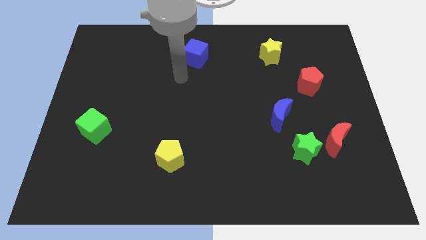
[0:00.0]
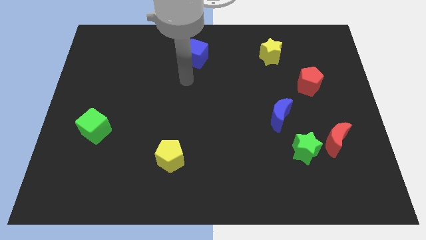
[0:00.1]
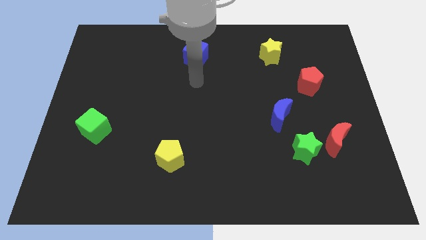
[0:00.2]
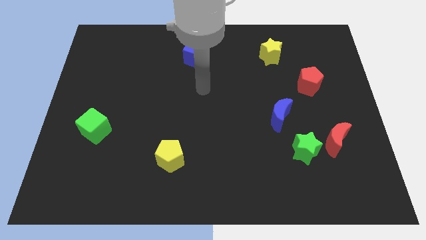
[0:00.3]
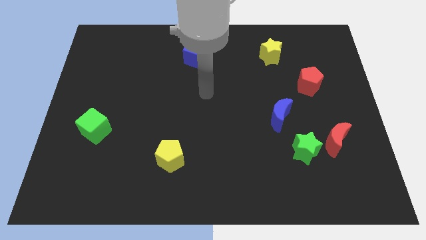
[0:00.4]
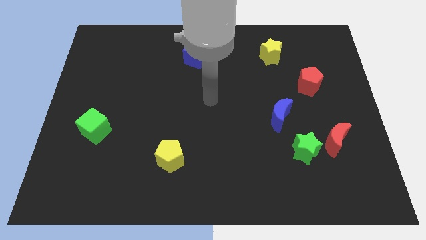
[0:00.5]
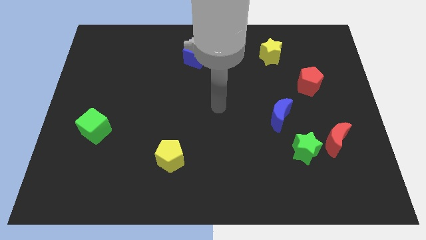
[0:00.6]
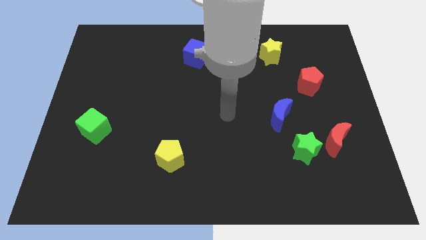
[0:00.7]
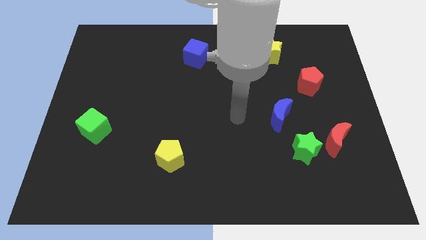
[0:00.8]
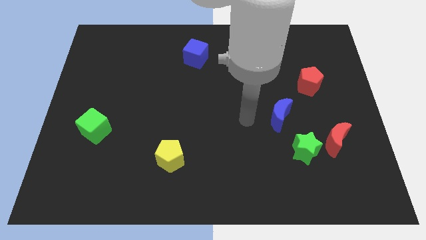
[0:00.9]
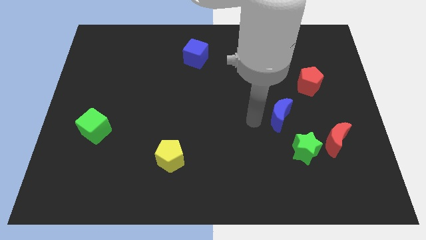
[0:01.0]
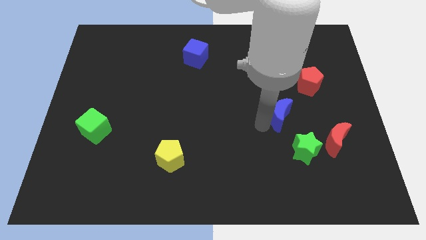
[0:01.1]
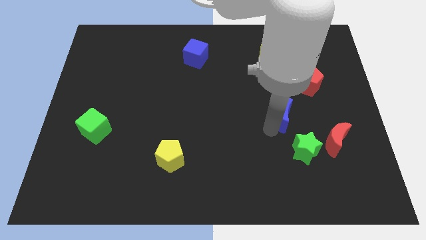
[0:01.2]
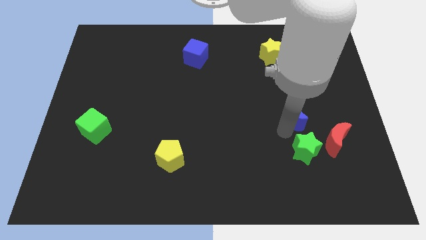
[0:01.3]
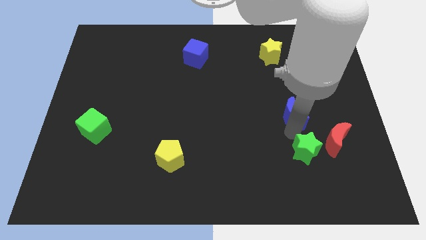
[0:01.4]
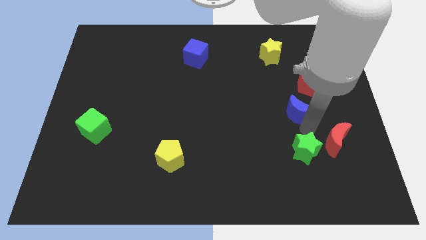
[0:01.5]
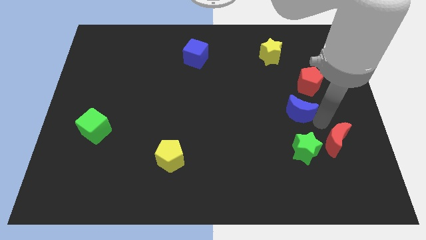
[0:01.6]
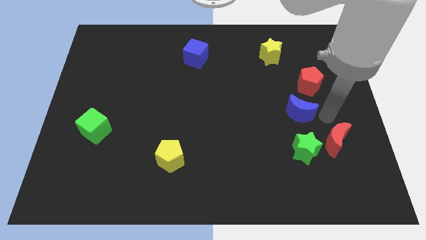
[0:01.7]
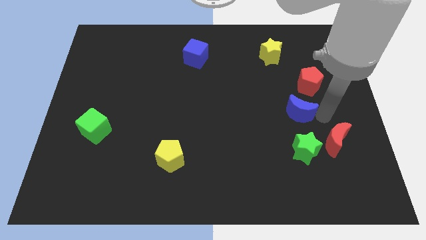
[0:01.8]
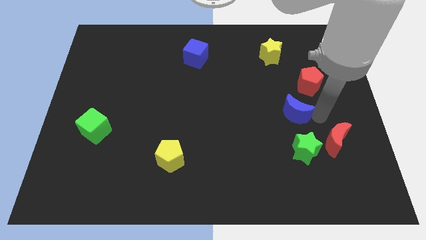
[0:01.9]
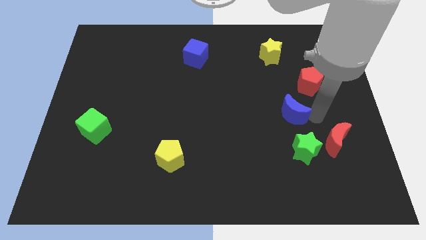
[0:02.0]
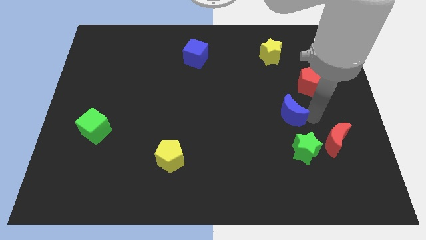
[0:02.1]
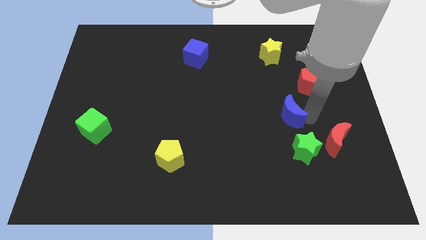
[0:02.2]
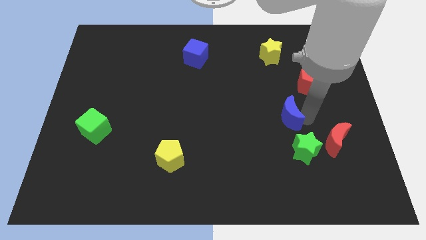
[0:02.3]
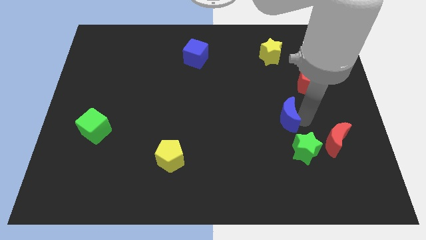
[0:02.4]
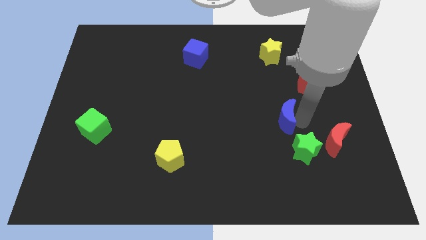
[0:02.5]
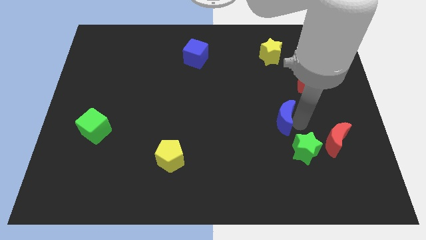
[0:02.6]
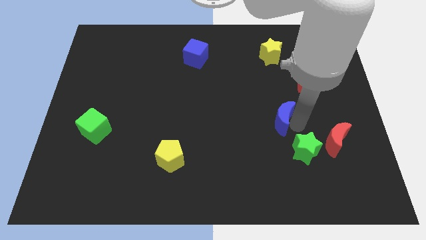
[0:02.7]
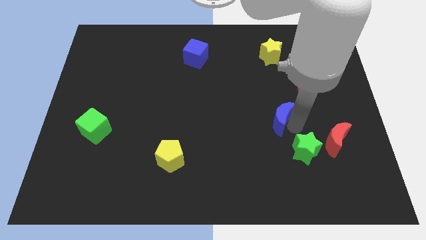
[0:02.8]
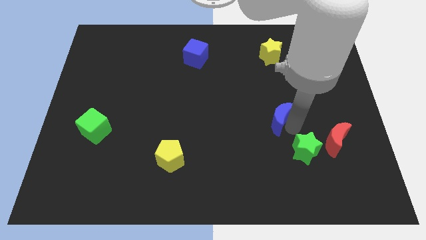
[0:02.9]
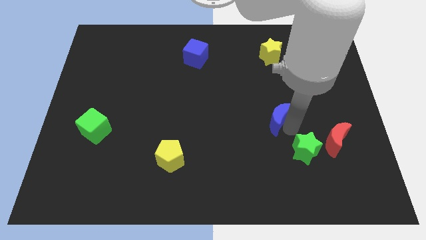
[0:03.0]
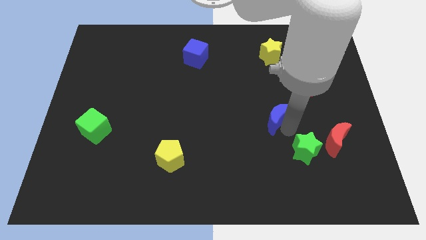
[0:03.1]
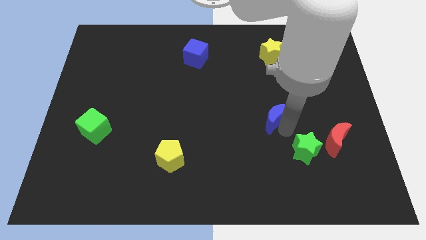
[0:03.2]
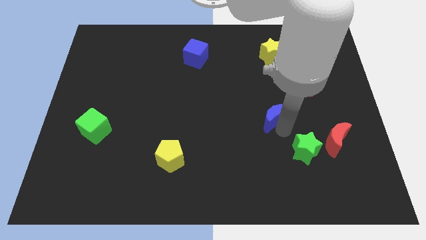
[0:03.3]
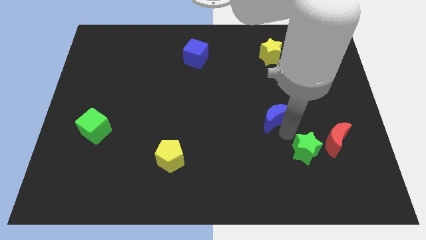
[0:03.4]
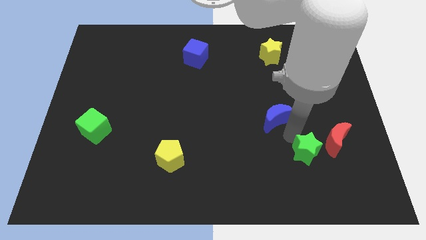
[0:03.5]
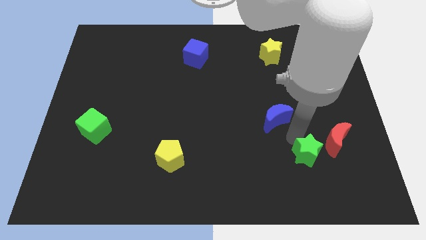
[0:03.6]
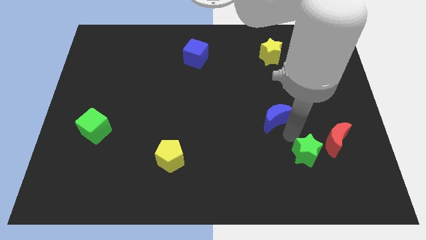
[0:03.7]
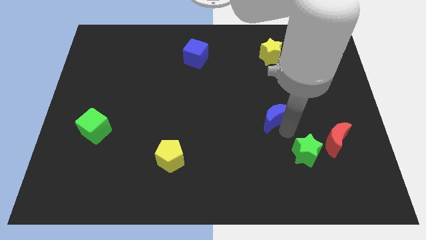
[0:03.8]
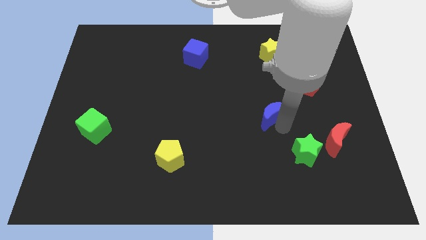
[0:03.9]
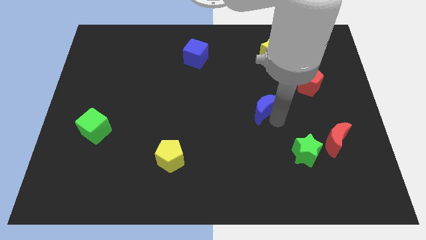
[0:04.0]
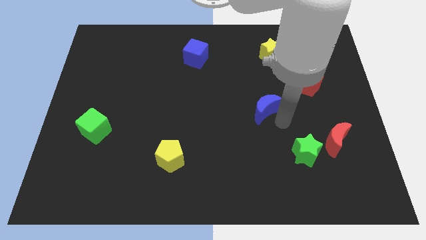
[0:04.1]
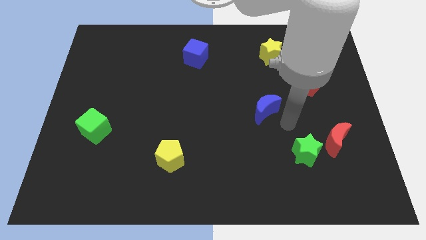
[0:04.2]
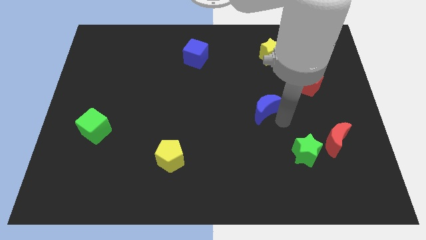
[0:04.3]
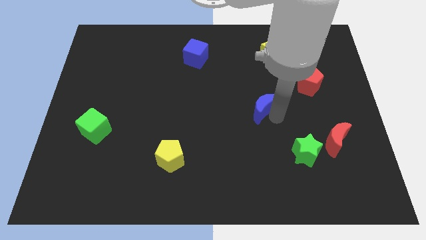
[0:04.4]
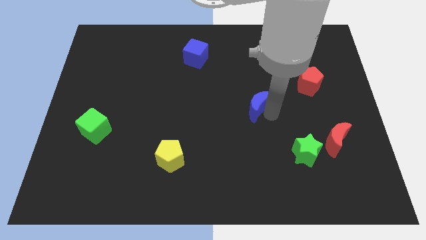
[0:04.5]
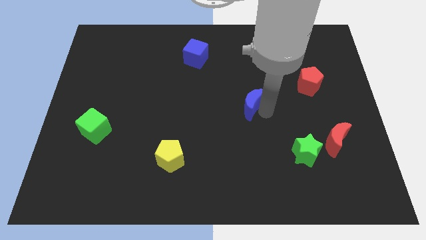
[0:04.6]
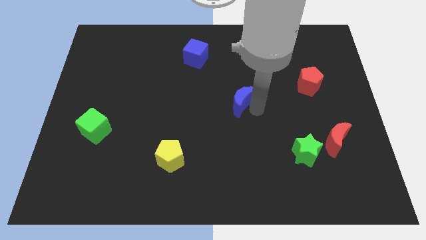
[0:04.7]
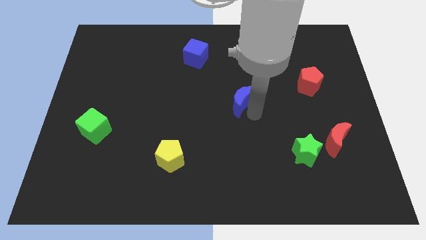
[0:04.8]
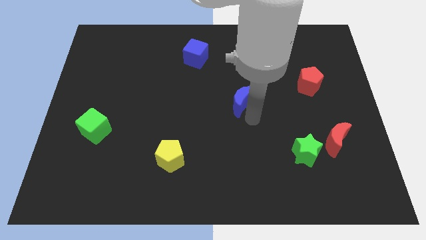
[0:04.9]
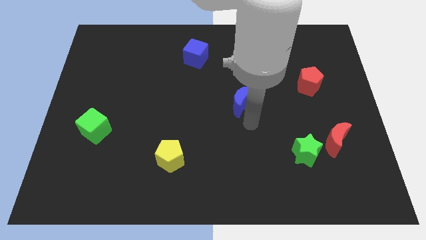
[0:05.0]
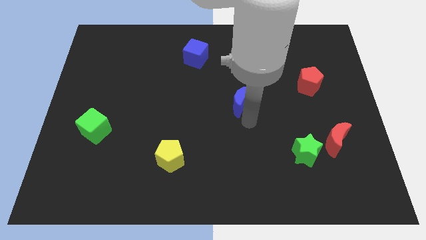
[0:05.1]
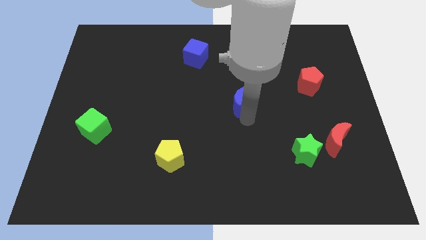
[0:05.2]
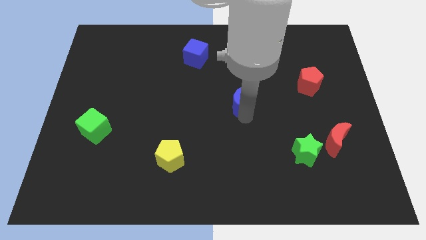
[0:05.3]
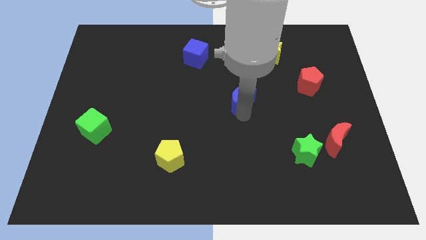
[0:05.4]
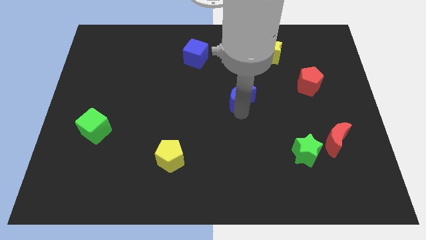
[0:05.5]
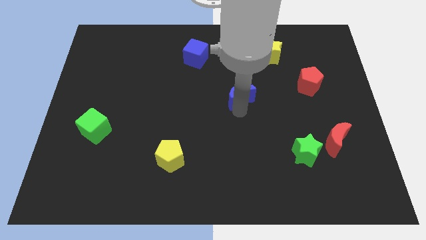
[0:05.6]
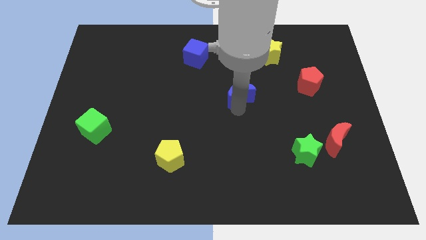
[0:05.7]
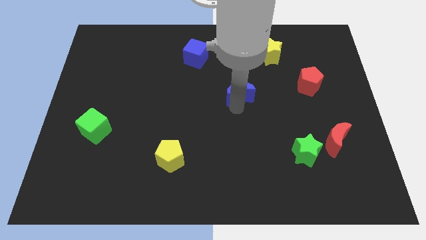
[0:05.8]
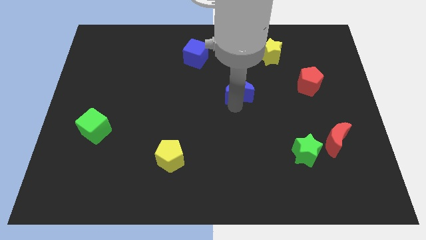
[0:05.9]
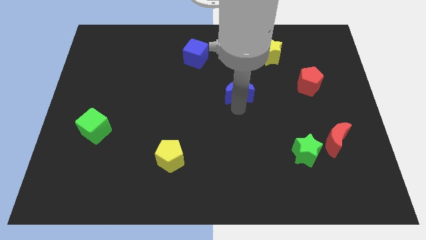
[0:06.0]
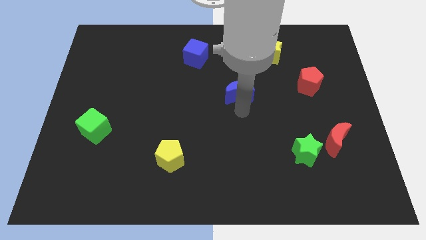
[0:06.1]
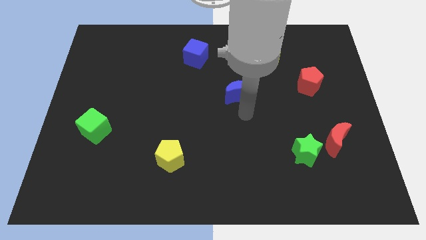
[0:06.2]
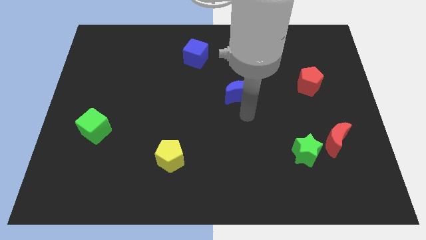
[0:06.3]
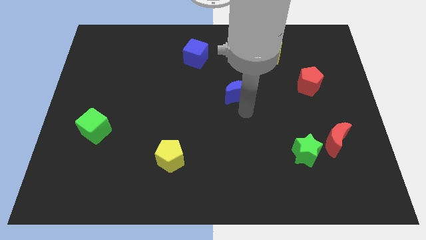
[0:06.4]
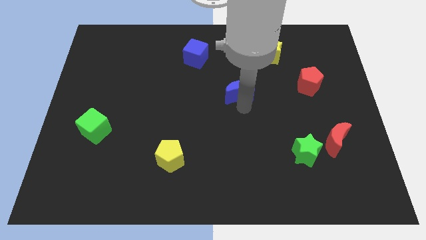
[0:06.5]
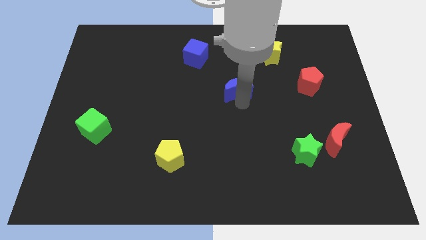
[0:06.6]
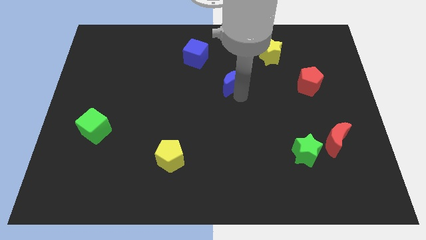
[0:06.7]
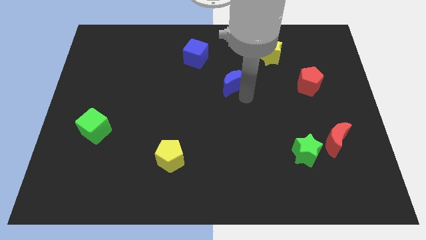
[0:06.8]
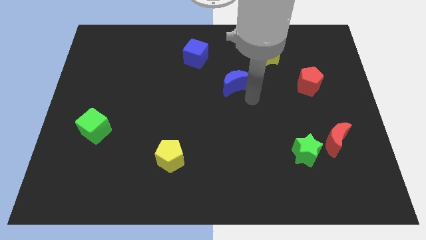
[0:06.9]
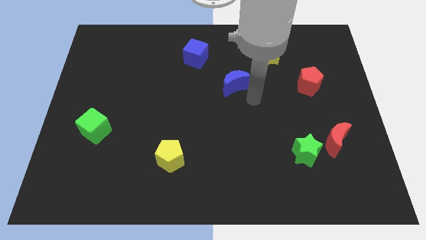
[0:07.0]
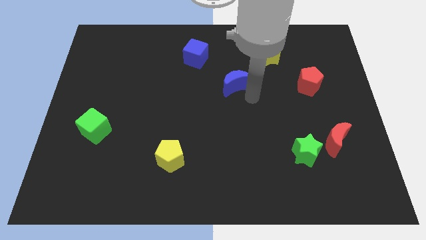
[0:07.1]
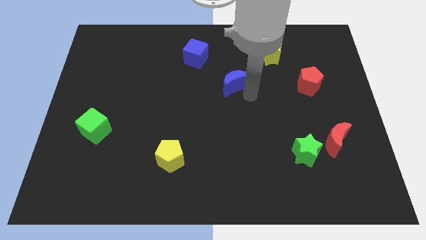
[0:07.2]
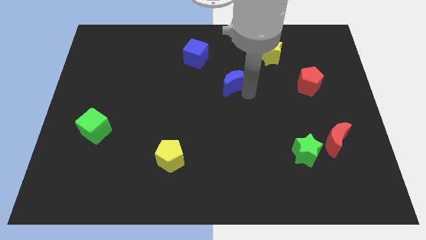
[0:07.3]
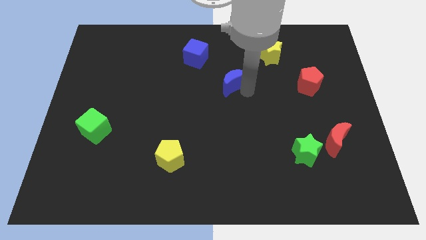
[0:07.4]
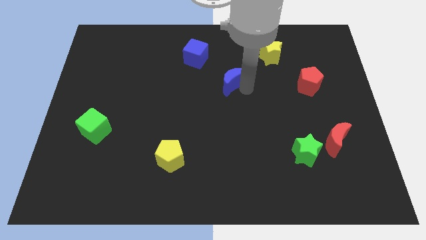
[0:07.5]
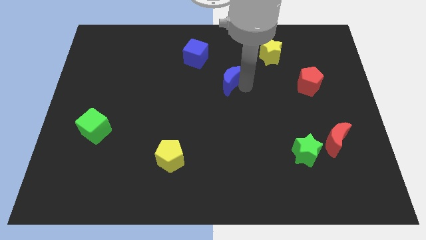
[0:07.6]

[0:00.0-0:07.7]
push the blue moon to the bottom right side of the blue cube
